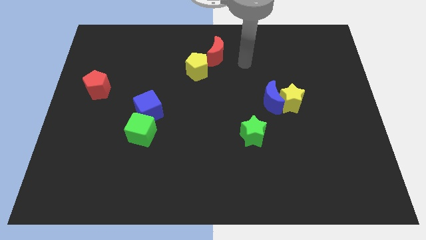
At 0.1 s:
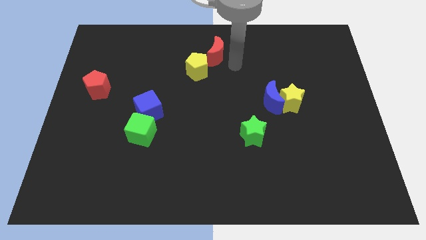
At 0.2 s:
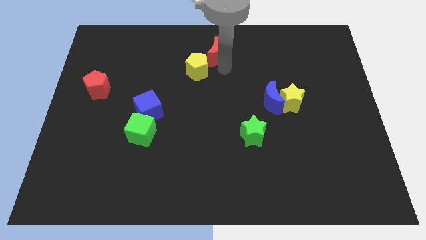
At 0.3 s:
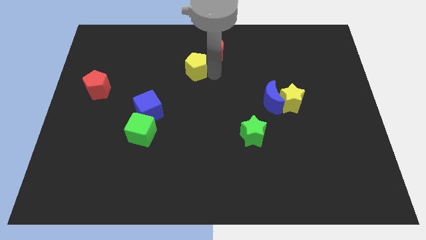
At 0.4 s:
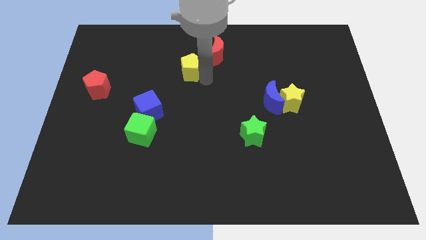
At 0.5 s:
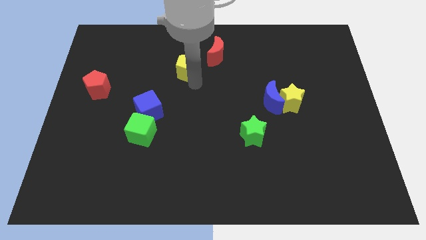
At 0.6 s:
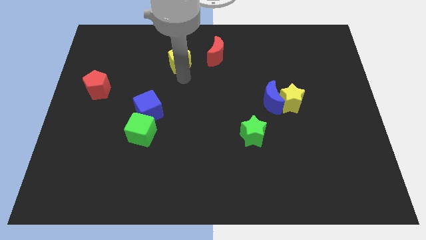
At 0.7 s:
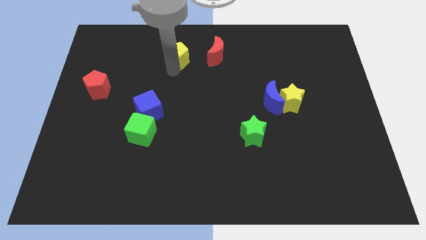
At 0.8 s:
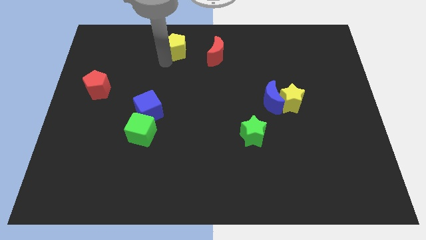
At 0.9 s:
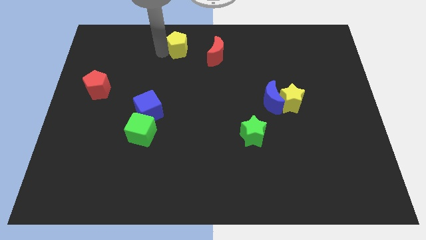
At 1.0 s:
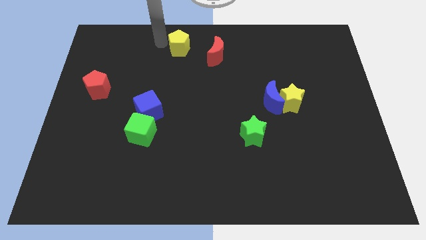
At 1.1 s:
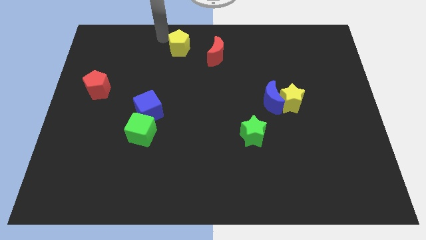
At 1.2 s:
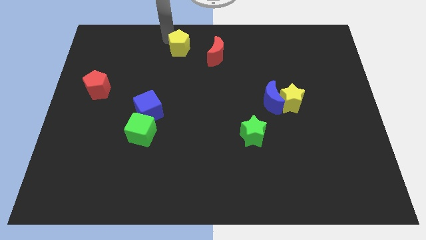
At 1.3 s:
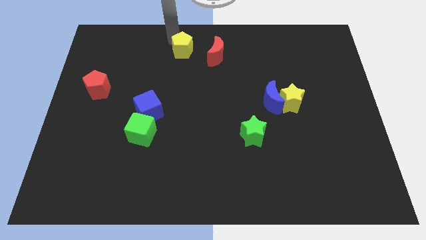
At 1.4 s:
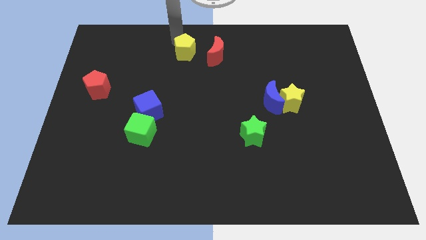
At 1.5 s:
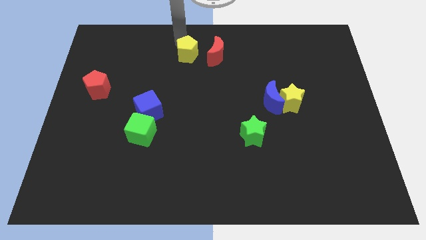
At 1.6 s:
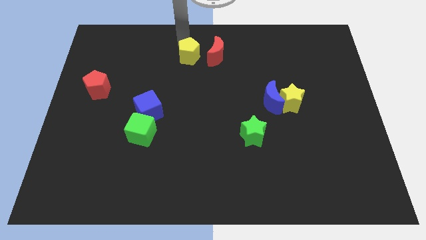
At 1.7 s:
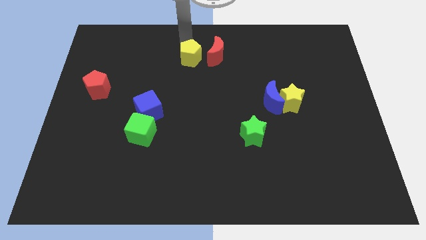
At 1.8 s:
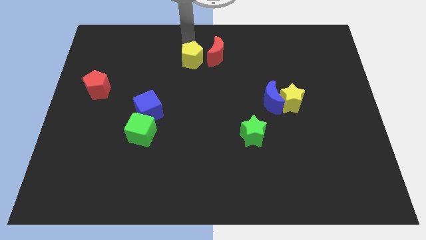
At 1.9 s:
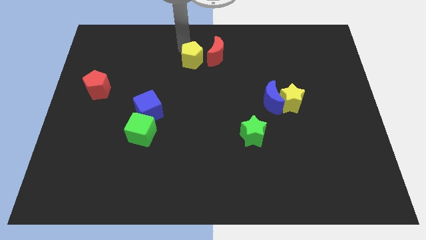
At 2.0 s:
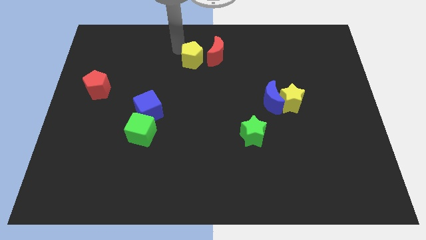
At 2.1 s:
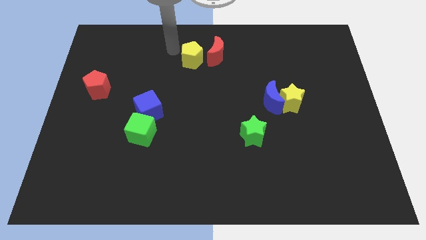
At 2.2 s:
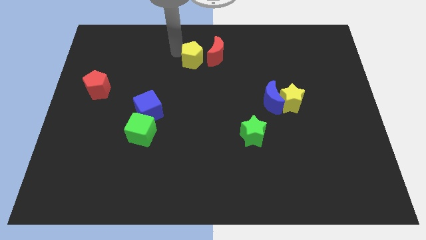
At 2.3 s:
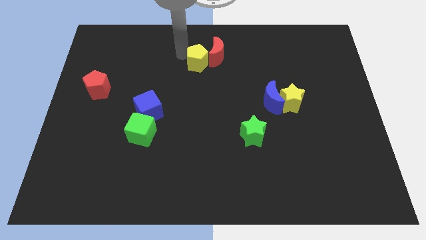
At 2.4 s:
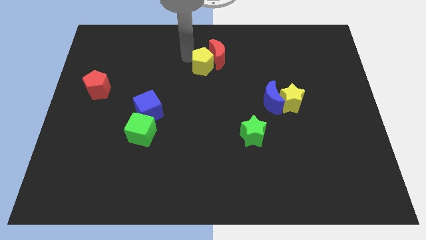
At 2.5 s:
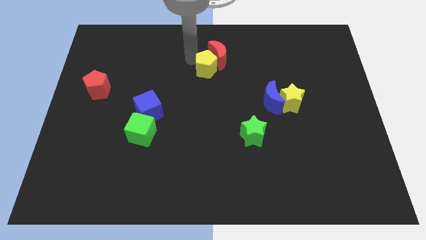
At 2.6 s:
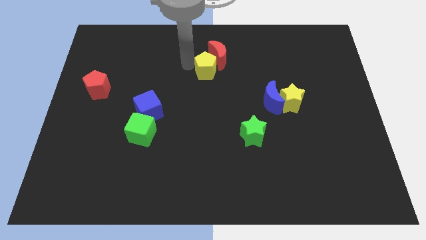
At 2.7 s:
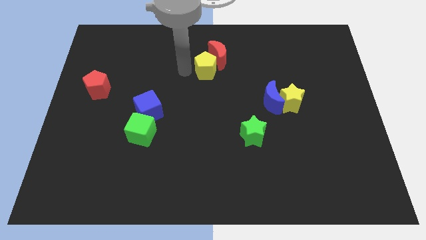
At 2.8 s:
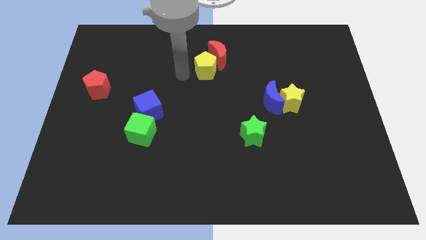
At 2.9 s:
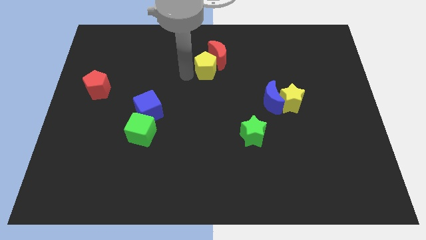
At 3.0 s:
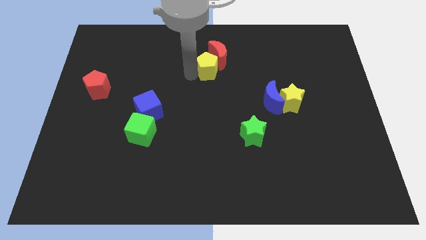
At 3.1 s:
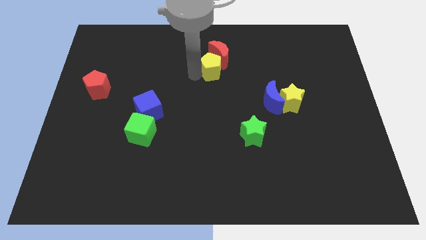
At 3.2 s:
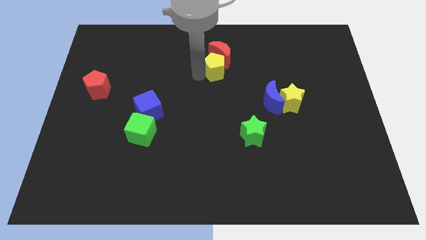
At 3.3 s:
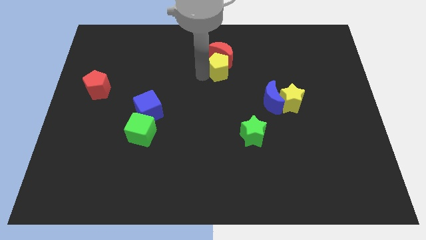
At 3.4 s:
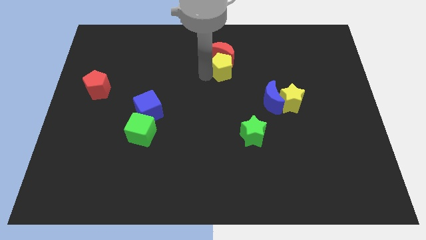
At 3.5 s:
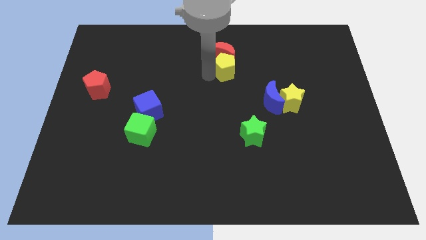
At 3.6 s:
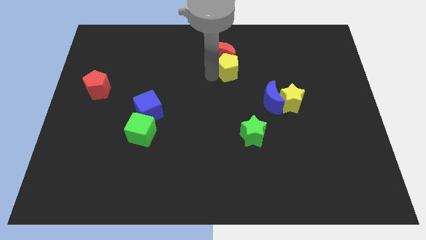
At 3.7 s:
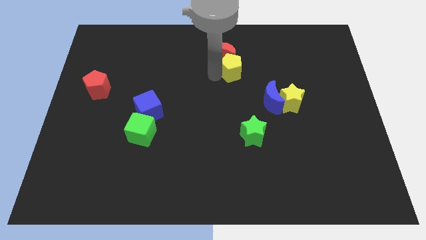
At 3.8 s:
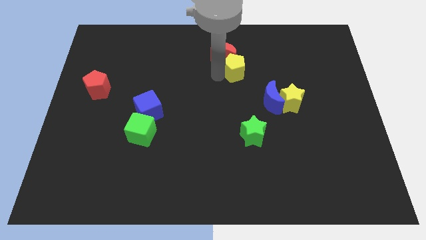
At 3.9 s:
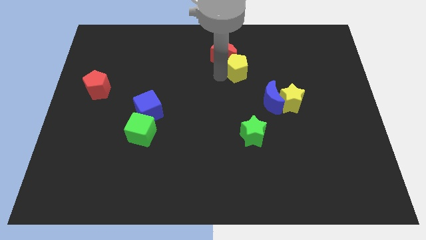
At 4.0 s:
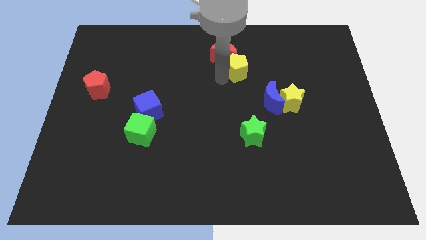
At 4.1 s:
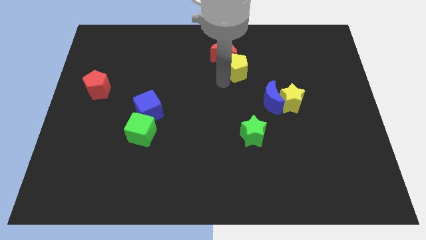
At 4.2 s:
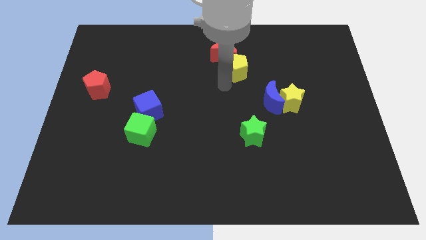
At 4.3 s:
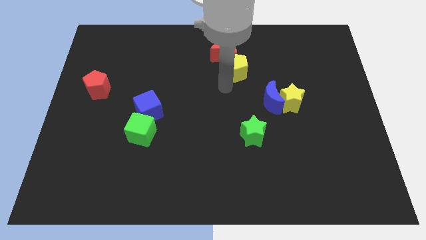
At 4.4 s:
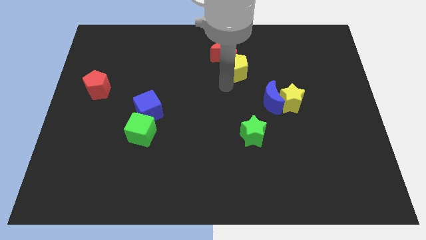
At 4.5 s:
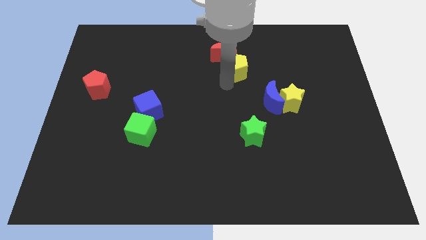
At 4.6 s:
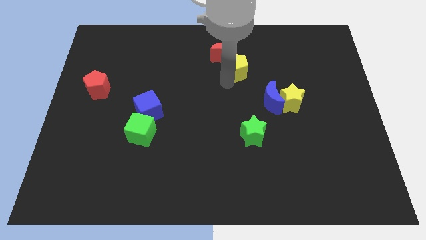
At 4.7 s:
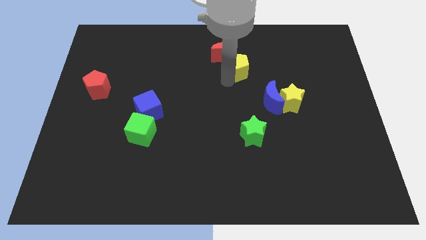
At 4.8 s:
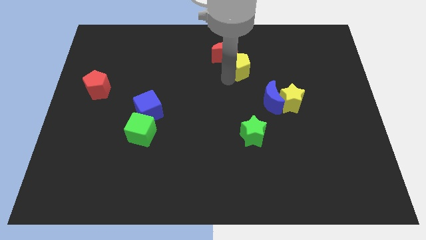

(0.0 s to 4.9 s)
move the yellow pentagon just right of the red moon

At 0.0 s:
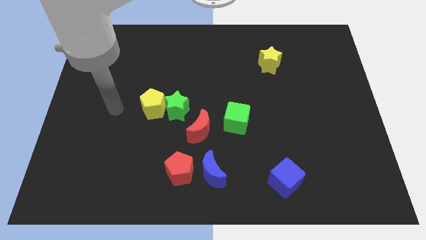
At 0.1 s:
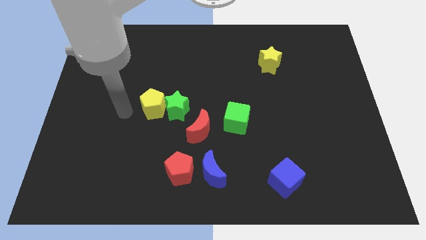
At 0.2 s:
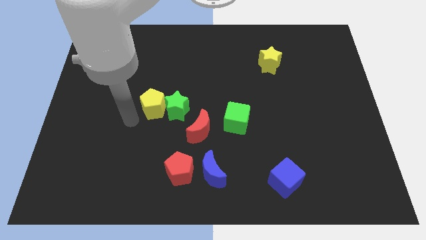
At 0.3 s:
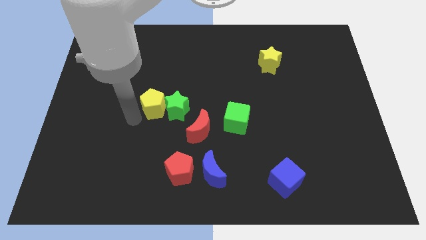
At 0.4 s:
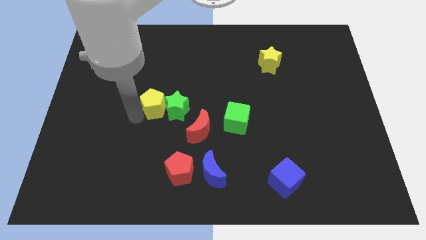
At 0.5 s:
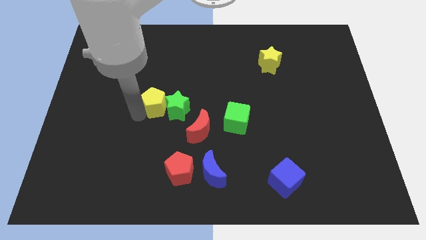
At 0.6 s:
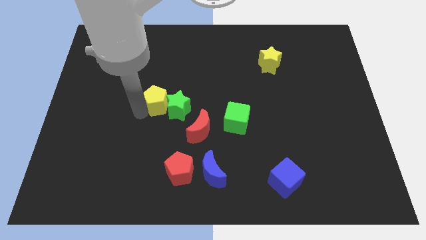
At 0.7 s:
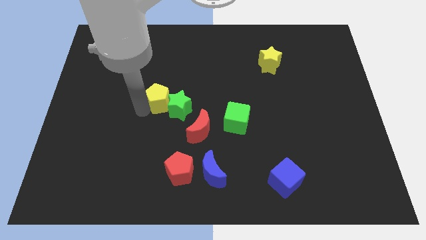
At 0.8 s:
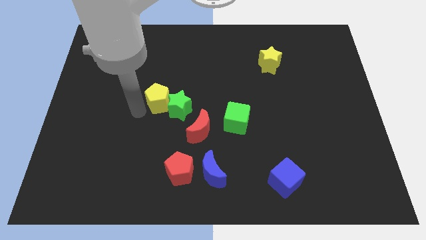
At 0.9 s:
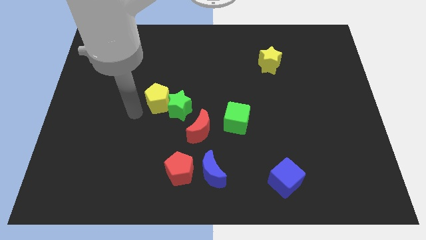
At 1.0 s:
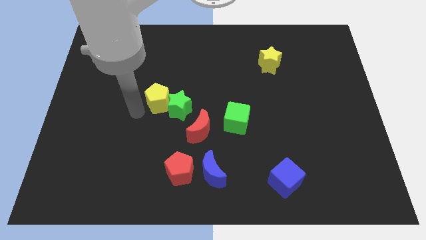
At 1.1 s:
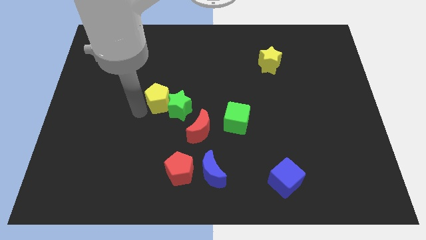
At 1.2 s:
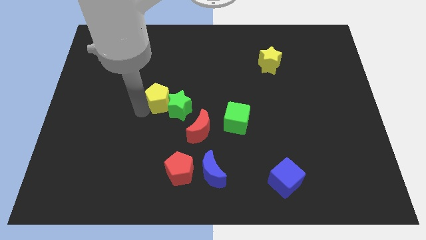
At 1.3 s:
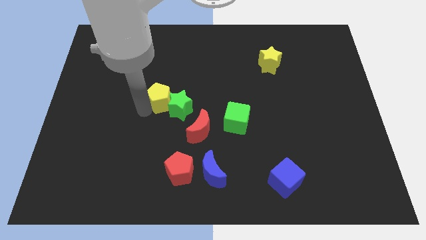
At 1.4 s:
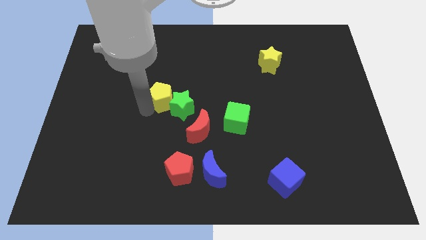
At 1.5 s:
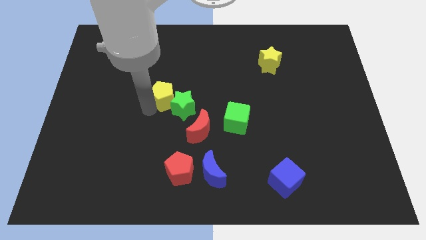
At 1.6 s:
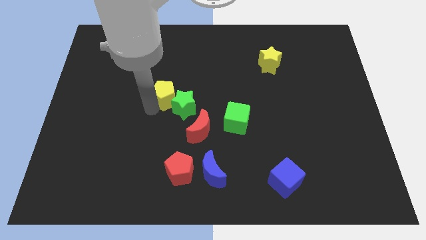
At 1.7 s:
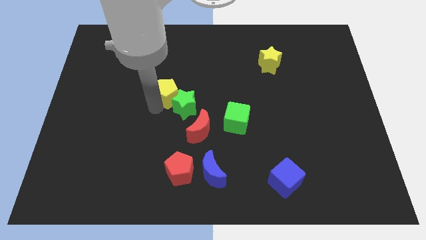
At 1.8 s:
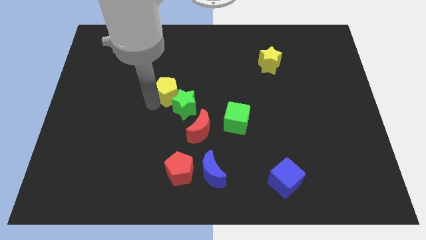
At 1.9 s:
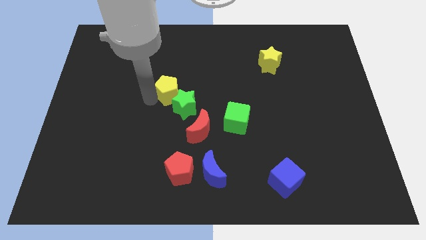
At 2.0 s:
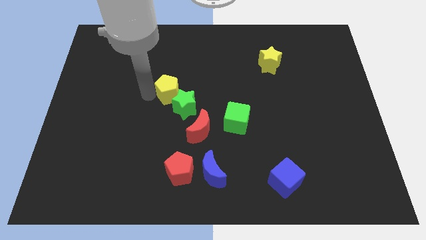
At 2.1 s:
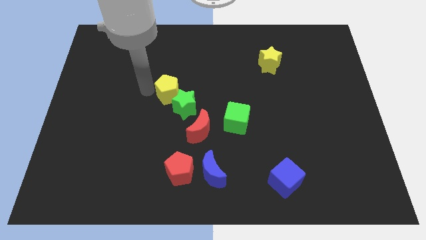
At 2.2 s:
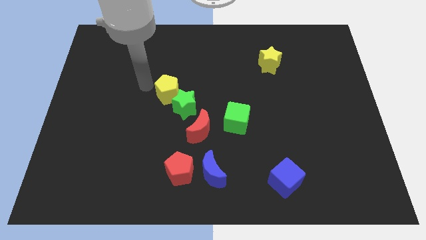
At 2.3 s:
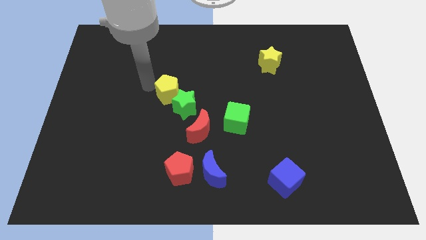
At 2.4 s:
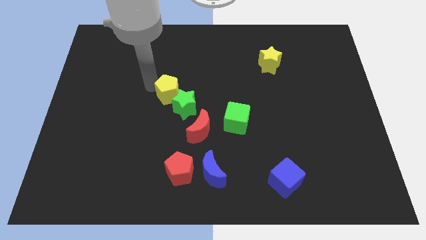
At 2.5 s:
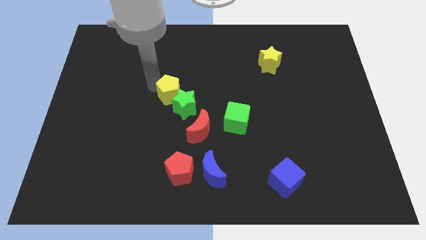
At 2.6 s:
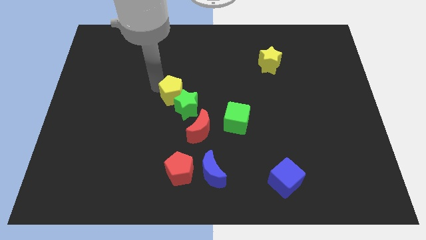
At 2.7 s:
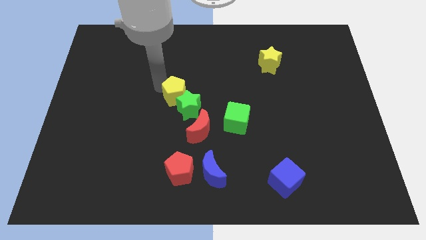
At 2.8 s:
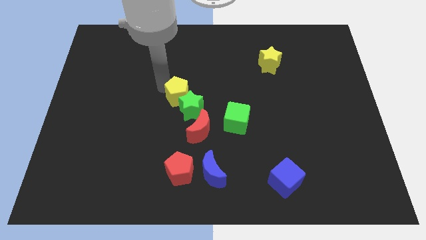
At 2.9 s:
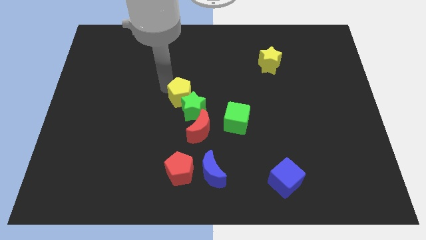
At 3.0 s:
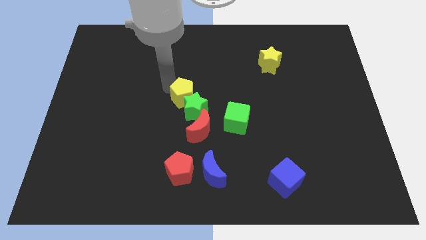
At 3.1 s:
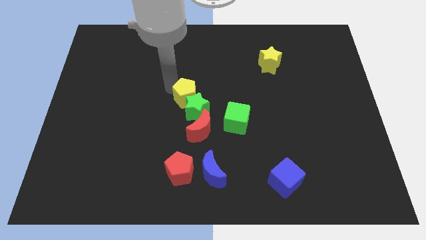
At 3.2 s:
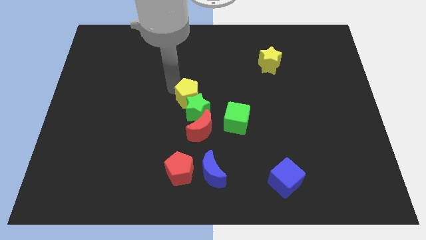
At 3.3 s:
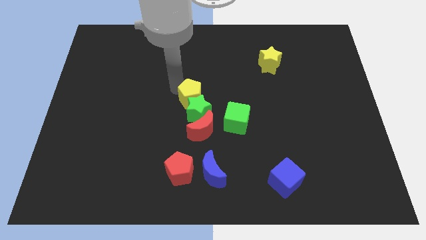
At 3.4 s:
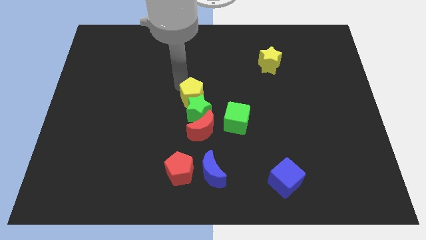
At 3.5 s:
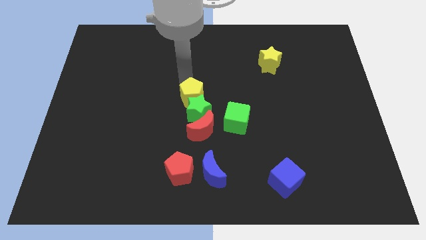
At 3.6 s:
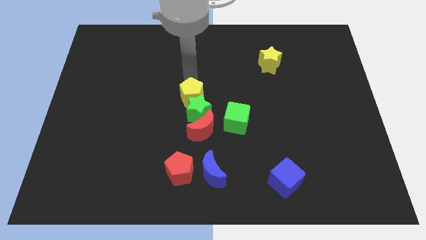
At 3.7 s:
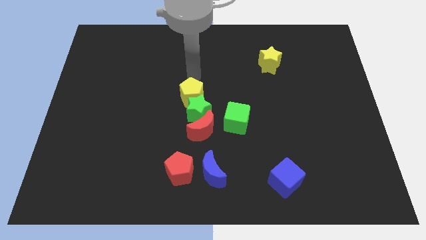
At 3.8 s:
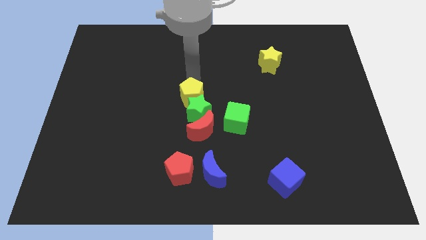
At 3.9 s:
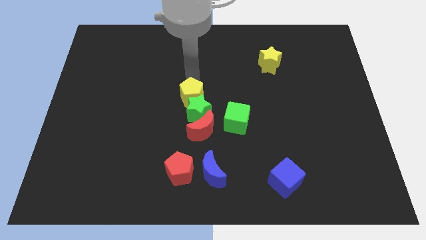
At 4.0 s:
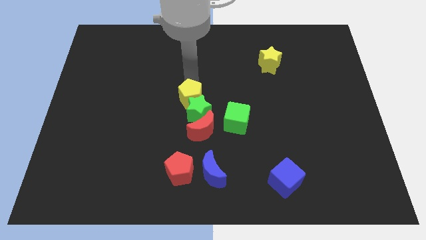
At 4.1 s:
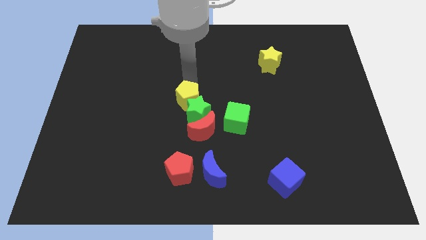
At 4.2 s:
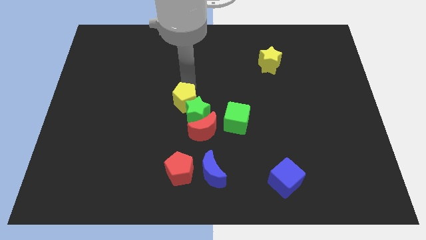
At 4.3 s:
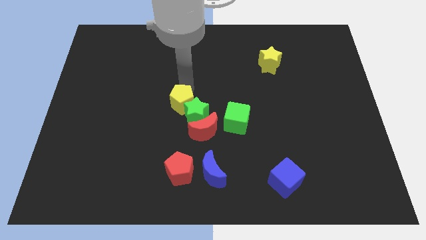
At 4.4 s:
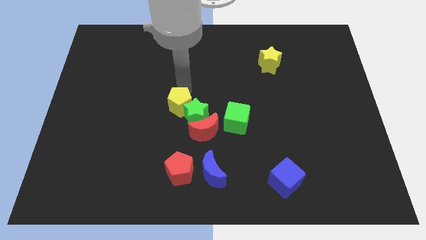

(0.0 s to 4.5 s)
put the yellow pentagon left of the green cube
